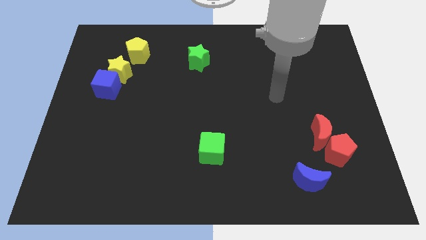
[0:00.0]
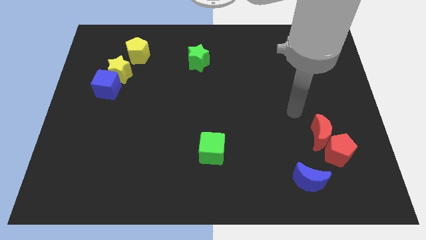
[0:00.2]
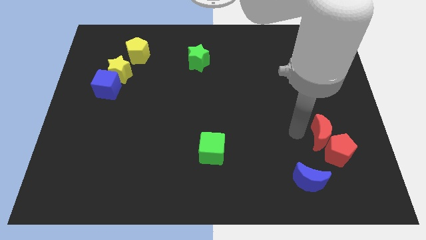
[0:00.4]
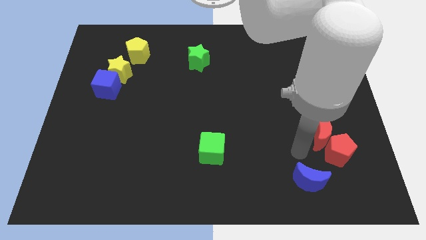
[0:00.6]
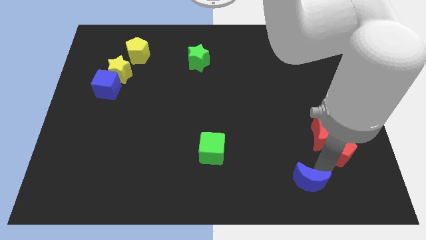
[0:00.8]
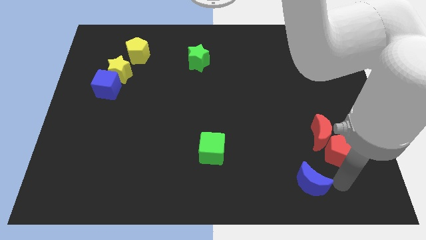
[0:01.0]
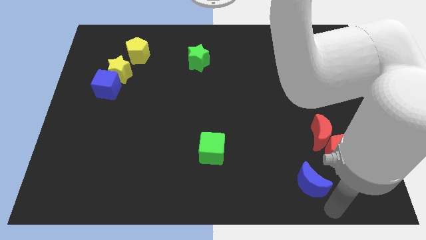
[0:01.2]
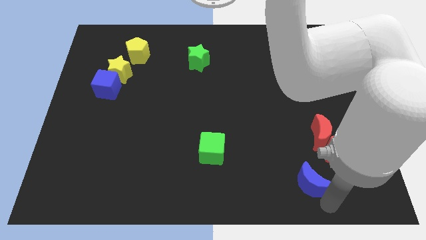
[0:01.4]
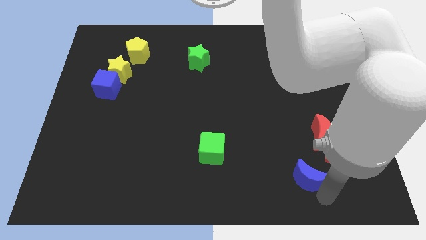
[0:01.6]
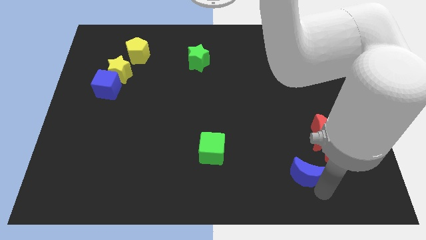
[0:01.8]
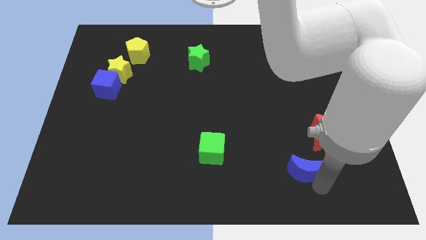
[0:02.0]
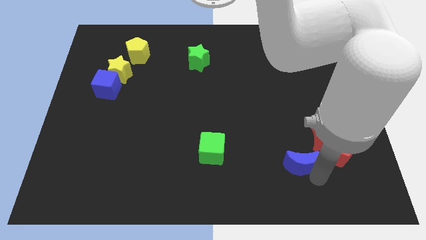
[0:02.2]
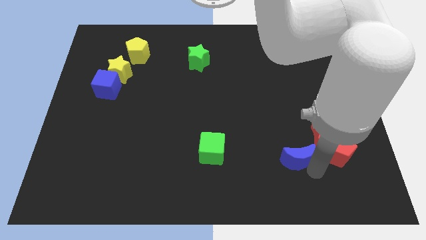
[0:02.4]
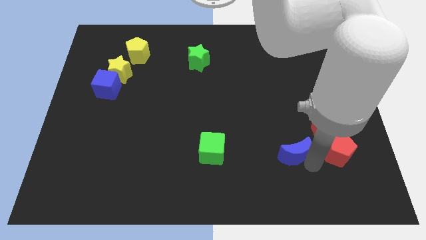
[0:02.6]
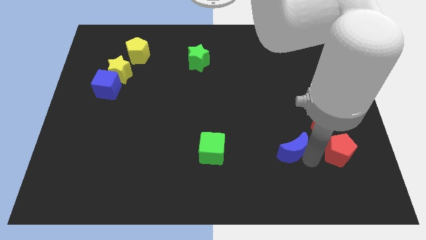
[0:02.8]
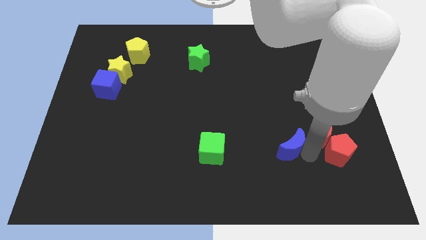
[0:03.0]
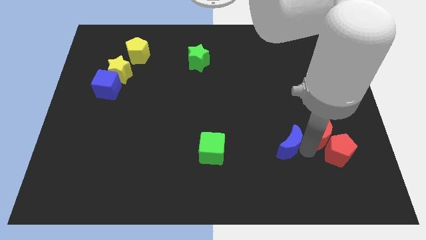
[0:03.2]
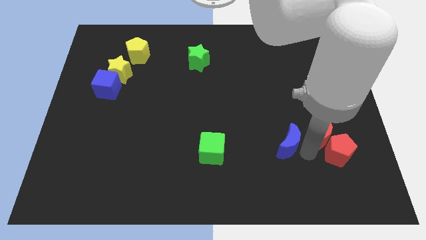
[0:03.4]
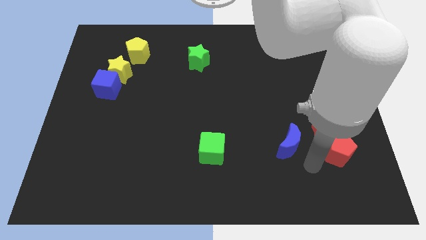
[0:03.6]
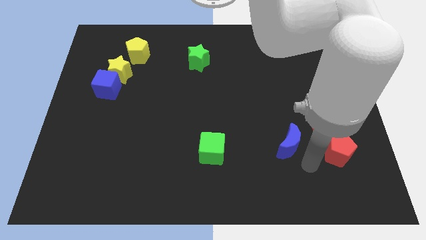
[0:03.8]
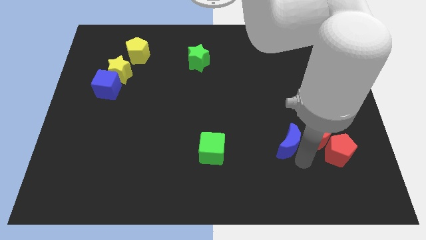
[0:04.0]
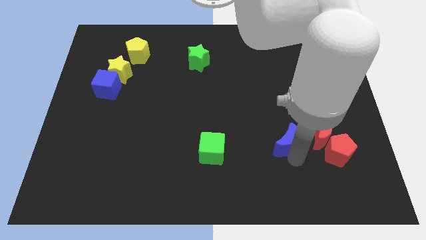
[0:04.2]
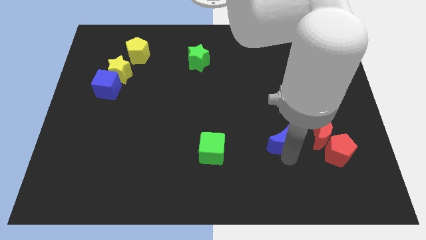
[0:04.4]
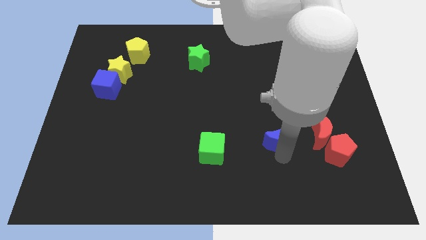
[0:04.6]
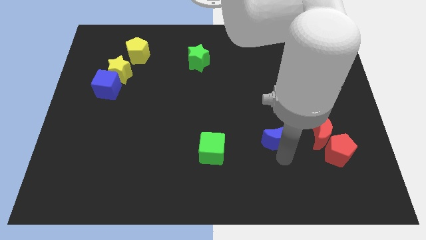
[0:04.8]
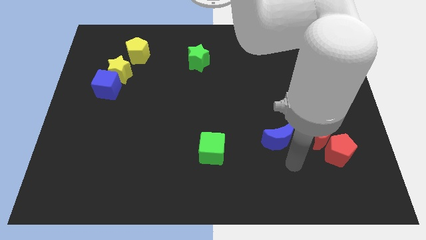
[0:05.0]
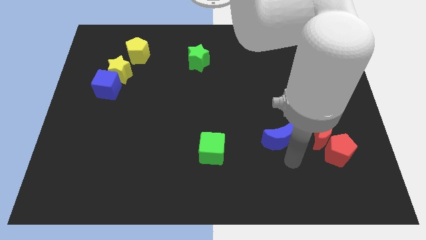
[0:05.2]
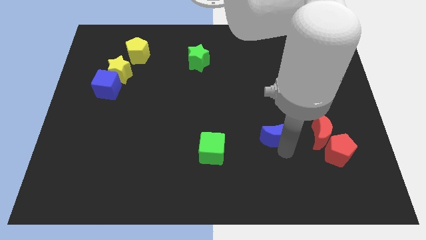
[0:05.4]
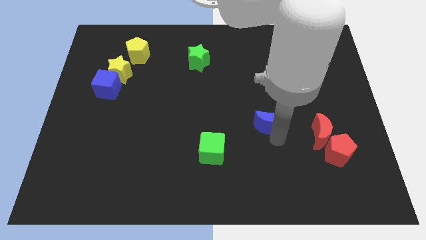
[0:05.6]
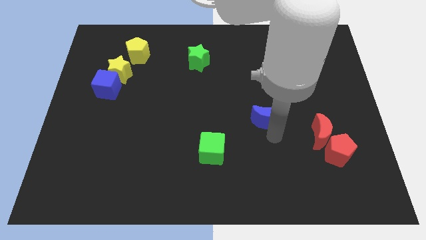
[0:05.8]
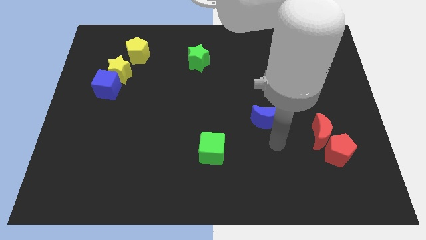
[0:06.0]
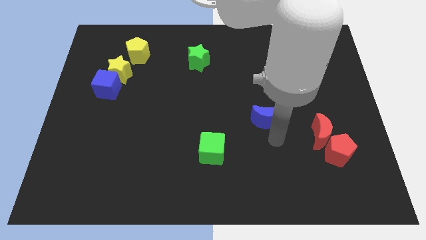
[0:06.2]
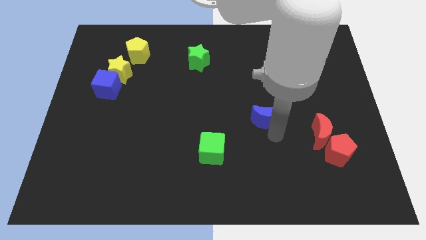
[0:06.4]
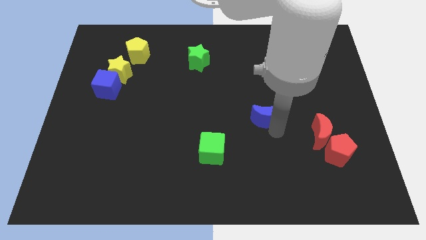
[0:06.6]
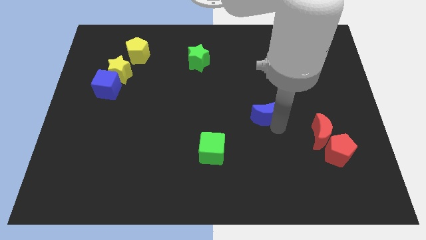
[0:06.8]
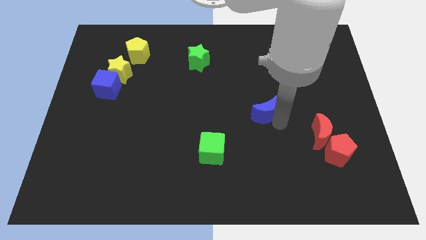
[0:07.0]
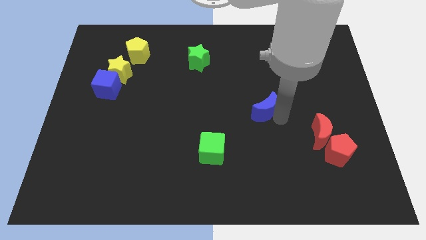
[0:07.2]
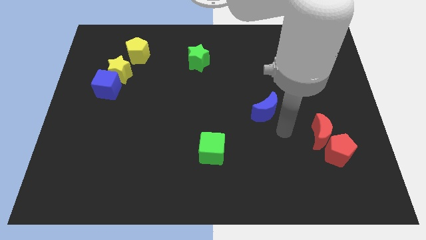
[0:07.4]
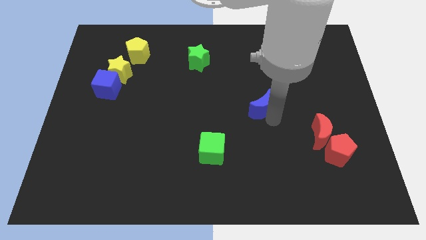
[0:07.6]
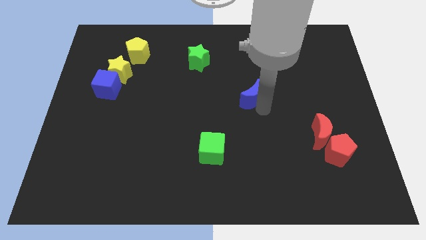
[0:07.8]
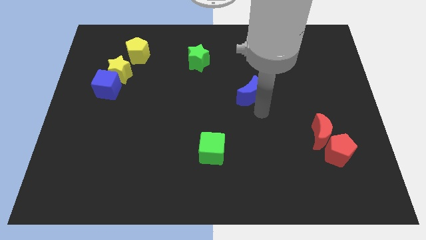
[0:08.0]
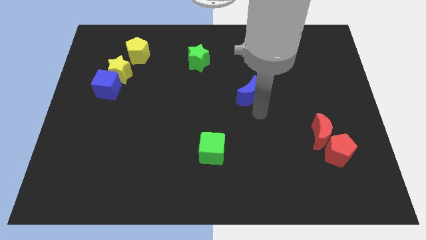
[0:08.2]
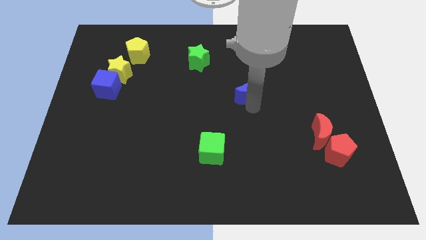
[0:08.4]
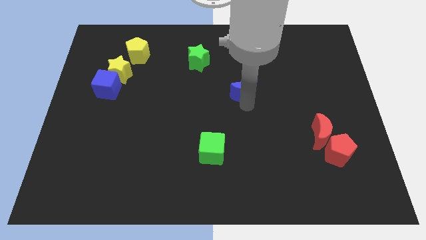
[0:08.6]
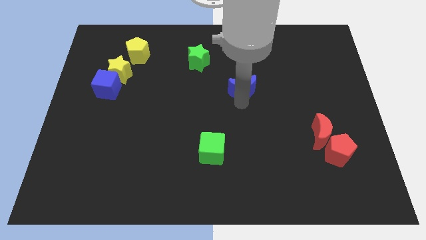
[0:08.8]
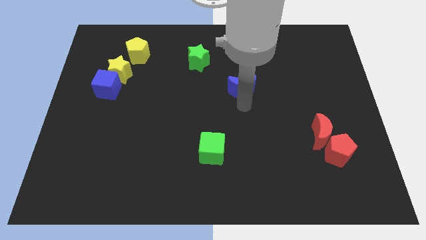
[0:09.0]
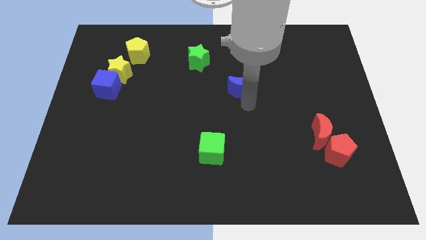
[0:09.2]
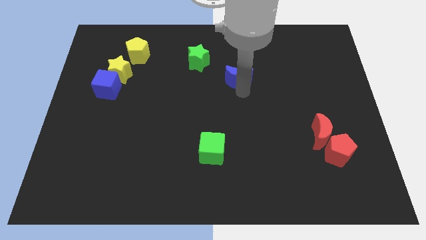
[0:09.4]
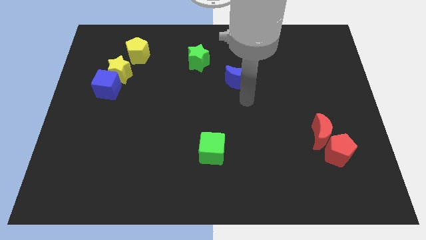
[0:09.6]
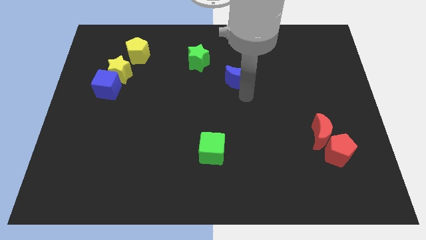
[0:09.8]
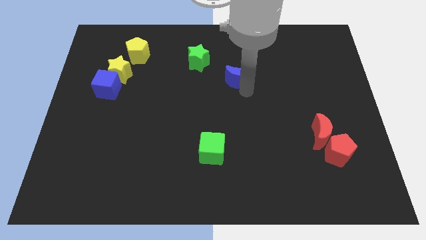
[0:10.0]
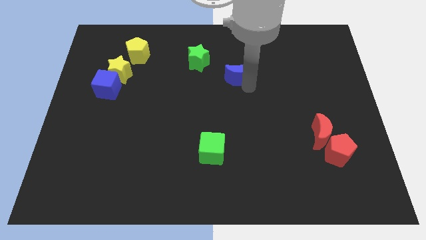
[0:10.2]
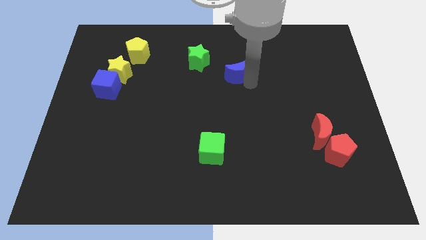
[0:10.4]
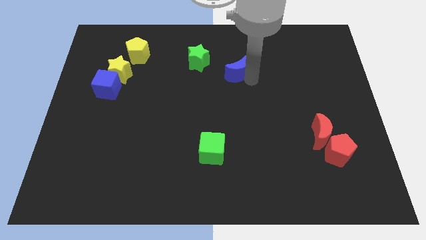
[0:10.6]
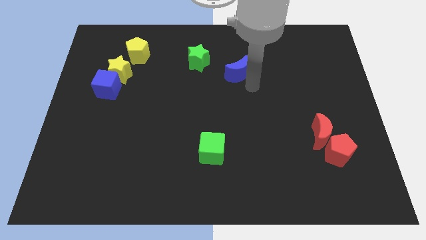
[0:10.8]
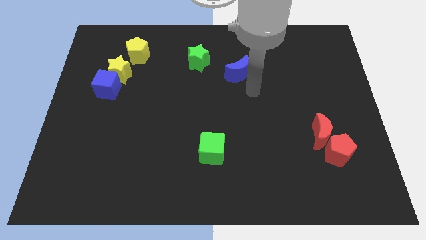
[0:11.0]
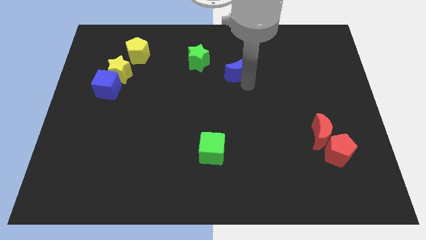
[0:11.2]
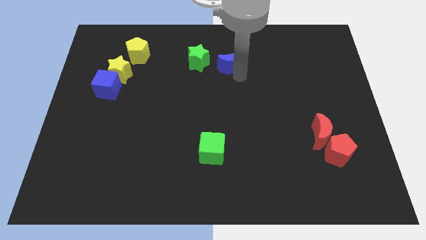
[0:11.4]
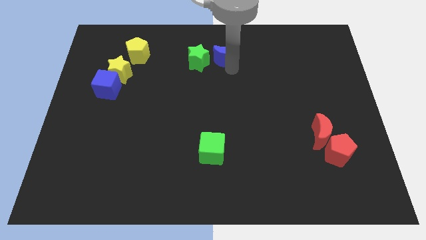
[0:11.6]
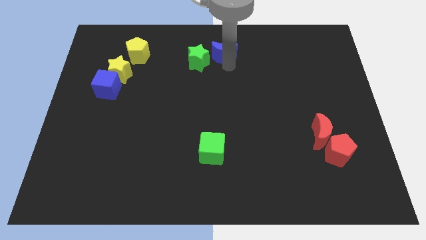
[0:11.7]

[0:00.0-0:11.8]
move the blue moon to the top side

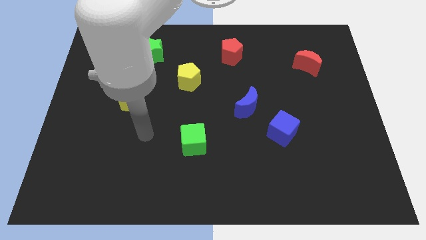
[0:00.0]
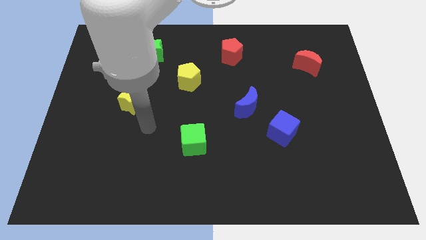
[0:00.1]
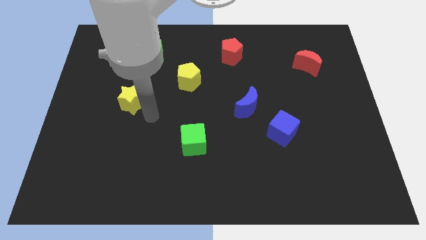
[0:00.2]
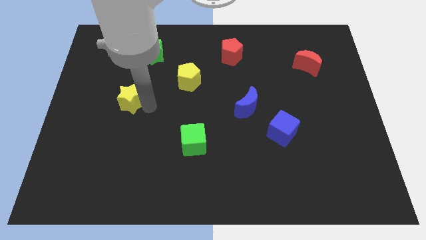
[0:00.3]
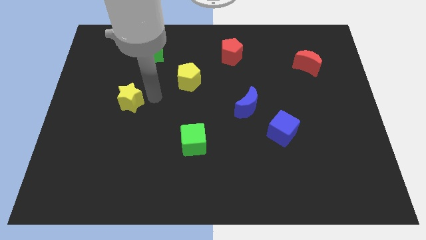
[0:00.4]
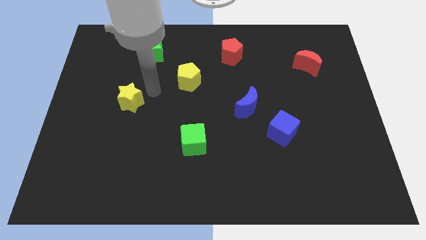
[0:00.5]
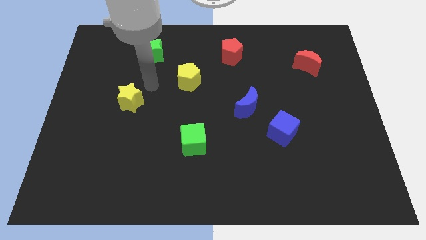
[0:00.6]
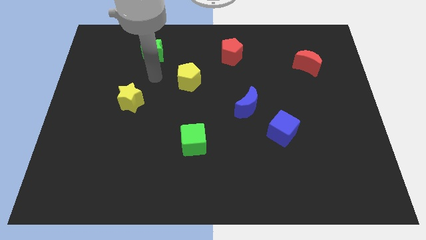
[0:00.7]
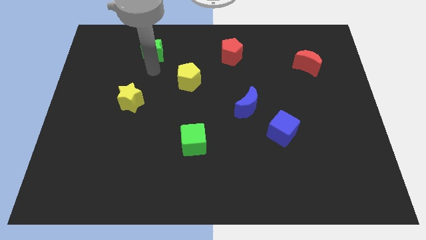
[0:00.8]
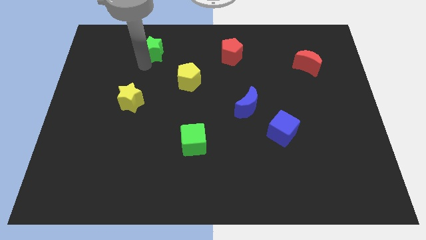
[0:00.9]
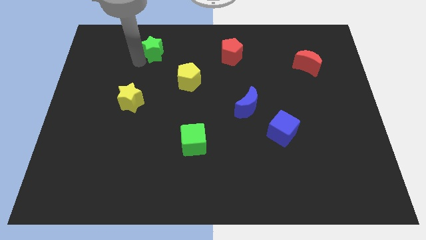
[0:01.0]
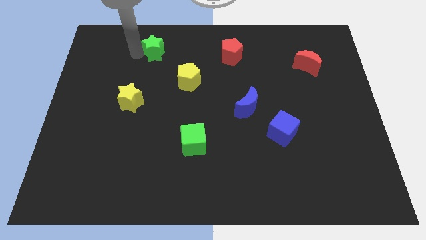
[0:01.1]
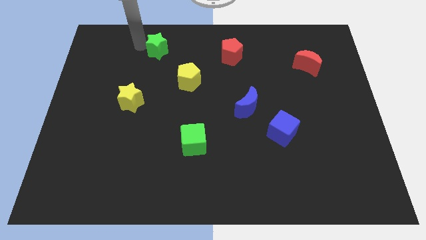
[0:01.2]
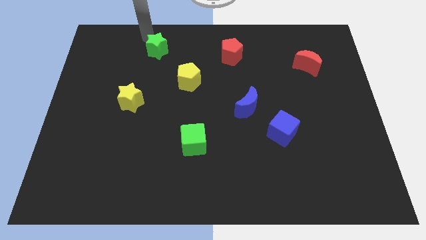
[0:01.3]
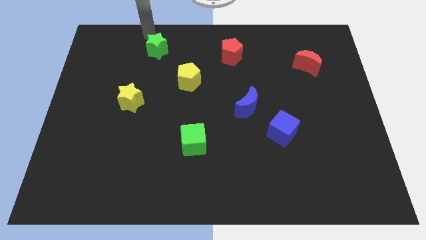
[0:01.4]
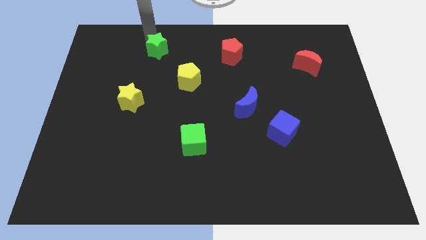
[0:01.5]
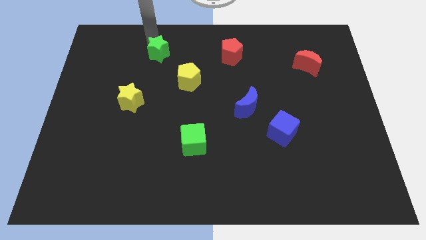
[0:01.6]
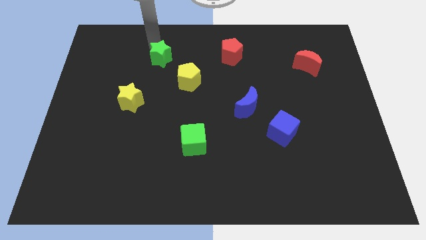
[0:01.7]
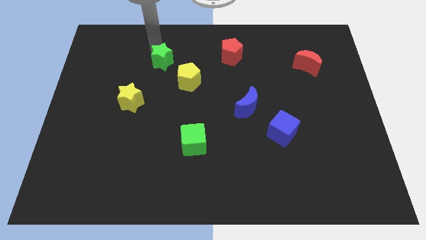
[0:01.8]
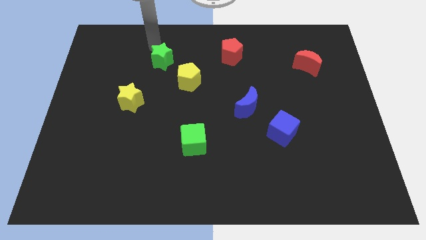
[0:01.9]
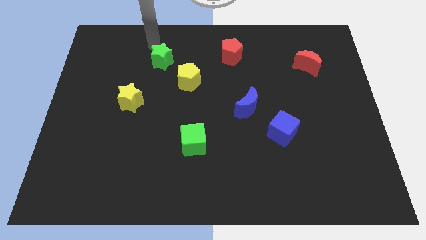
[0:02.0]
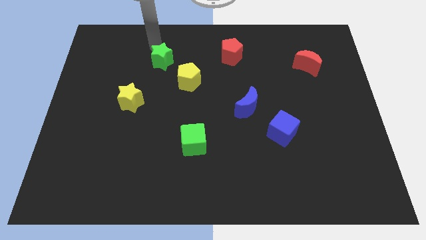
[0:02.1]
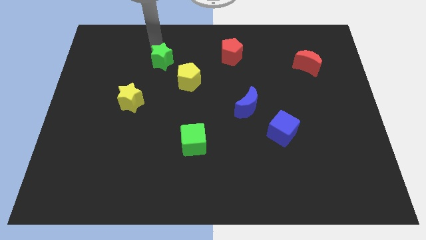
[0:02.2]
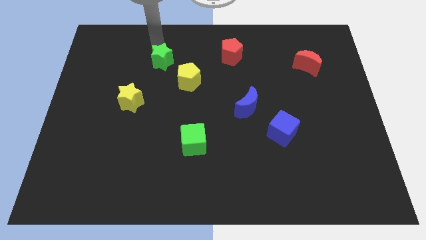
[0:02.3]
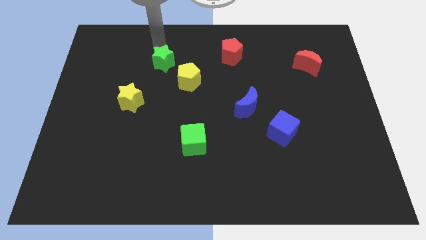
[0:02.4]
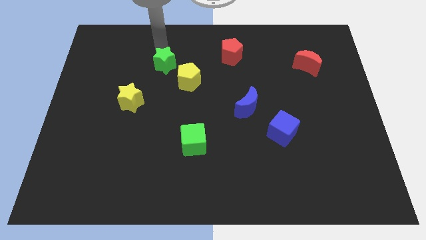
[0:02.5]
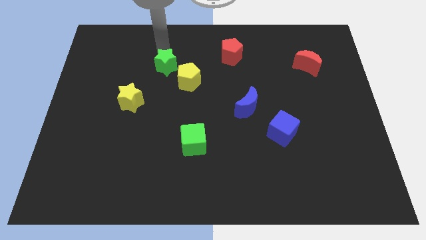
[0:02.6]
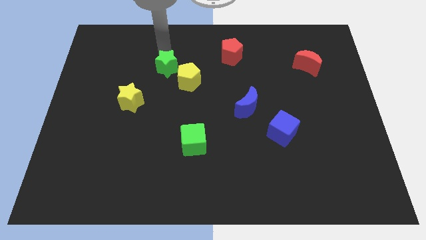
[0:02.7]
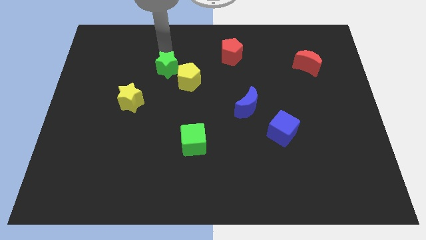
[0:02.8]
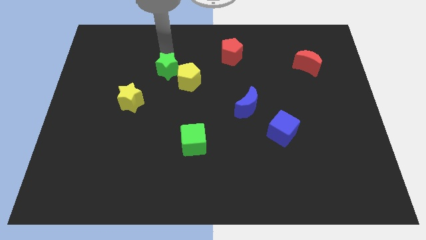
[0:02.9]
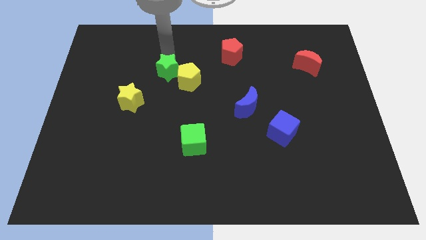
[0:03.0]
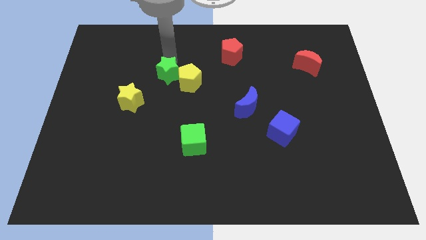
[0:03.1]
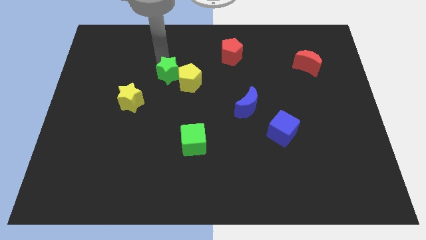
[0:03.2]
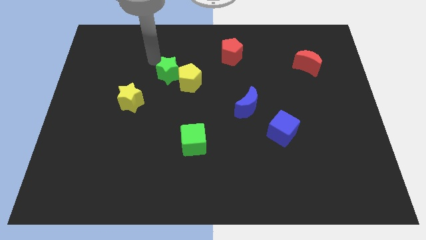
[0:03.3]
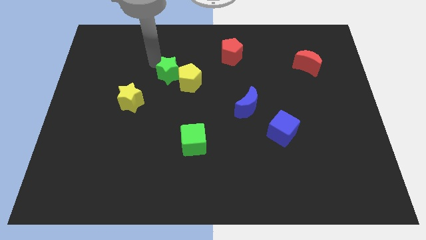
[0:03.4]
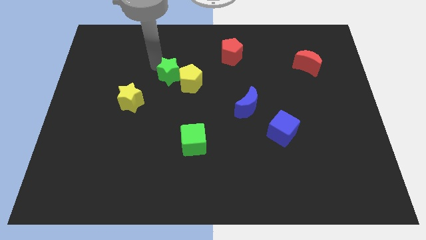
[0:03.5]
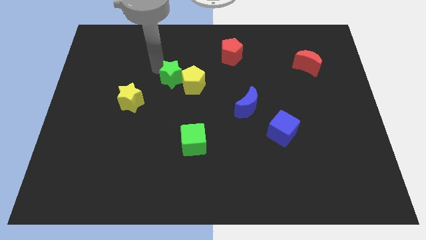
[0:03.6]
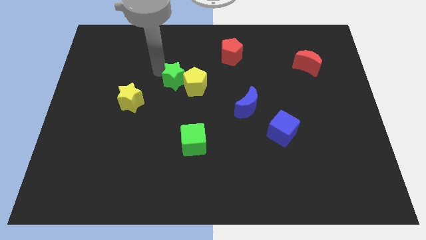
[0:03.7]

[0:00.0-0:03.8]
slide the green star to the middle
